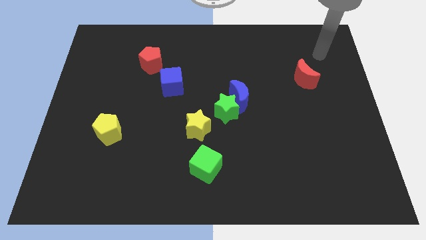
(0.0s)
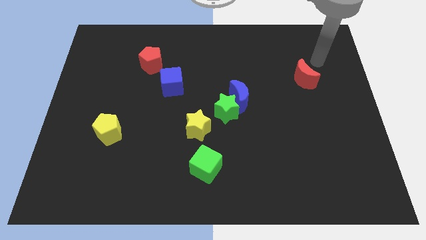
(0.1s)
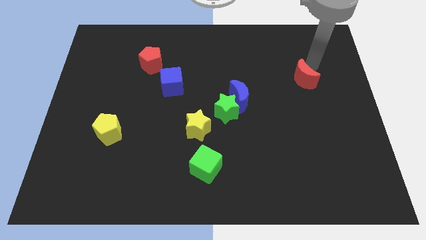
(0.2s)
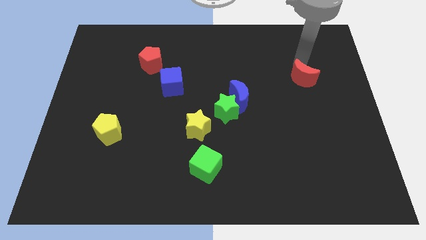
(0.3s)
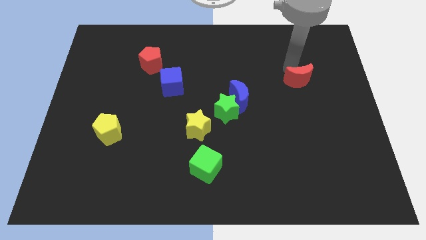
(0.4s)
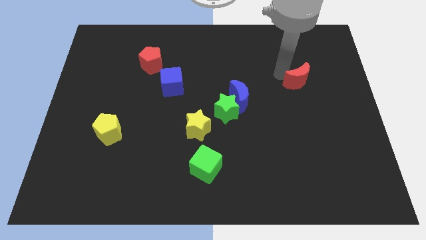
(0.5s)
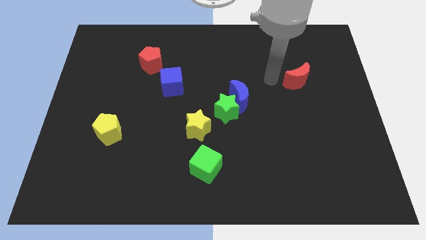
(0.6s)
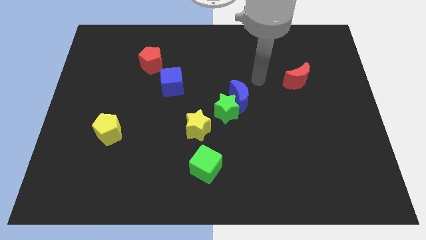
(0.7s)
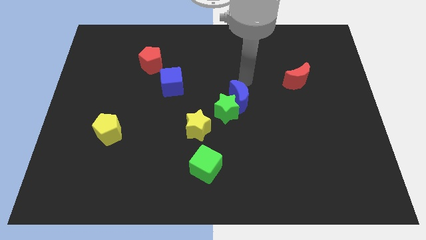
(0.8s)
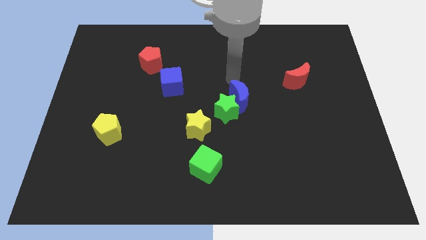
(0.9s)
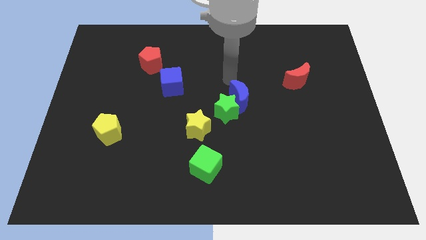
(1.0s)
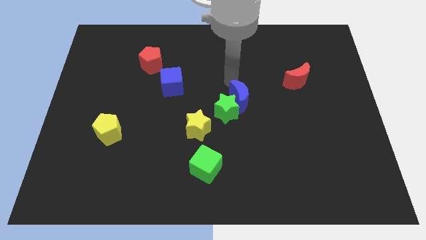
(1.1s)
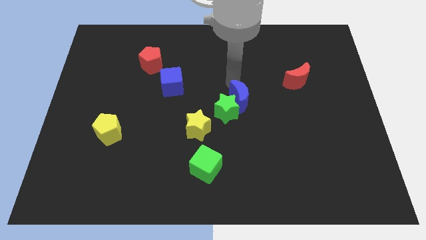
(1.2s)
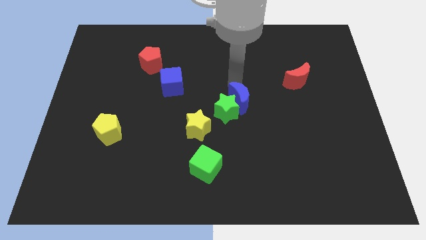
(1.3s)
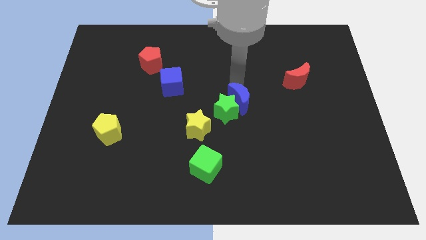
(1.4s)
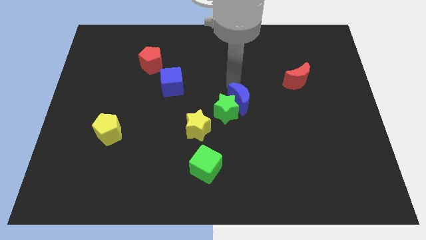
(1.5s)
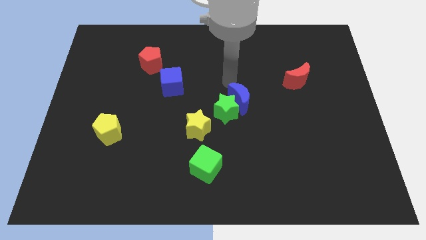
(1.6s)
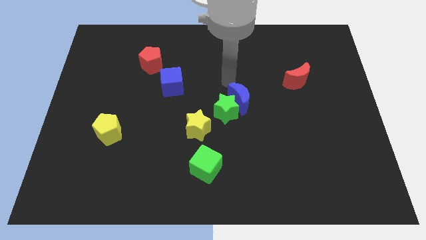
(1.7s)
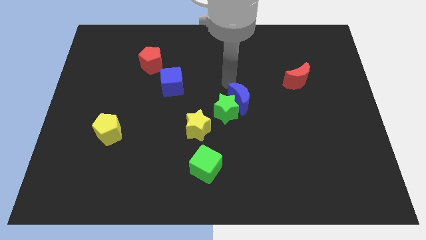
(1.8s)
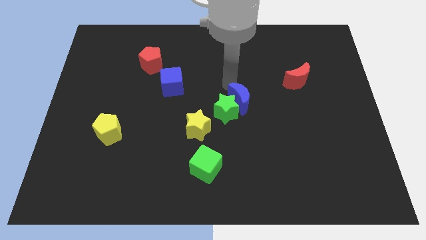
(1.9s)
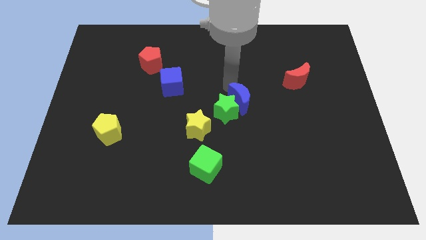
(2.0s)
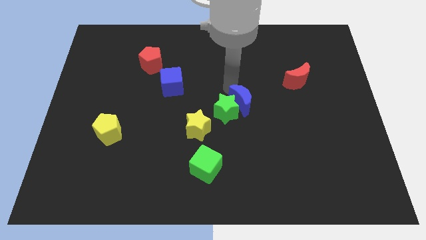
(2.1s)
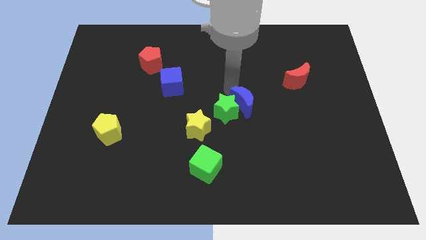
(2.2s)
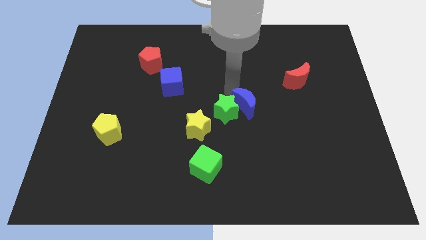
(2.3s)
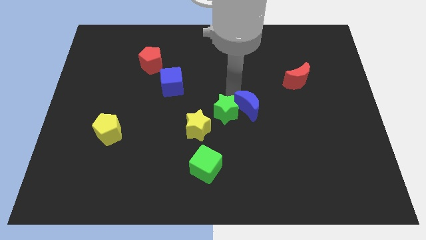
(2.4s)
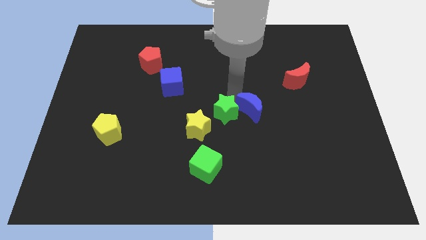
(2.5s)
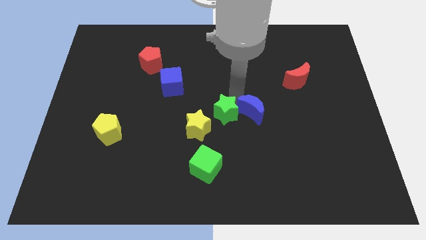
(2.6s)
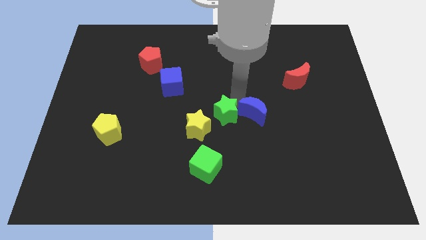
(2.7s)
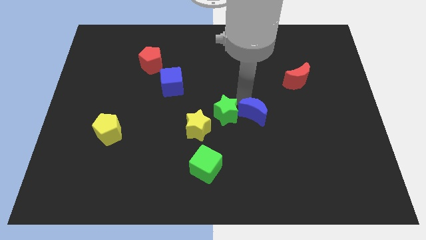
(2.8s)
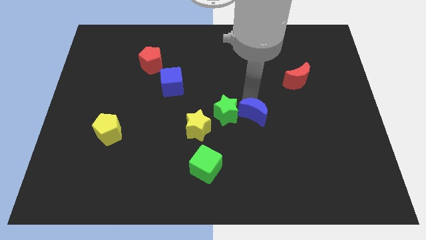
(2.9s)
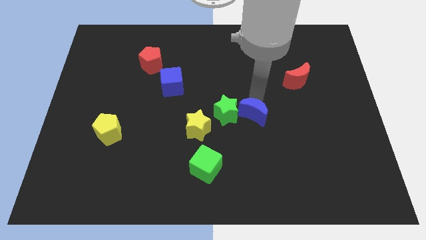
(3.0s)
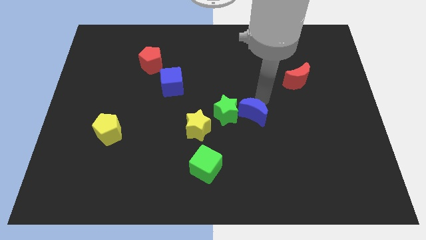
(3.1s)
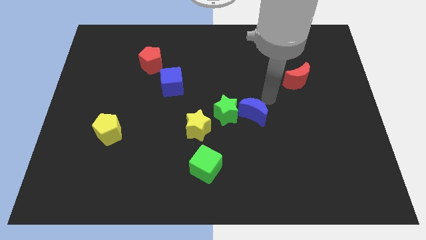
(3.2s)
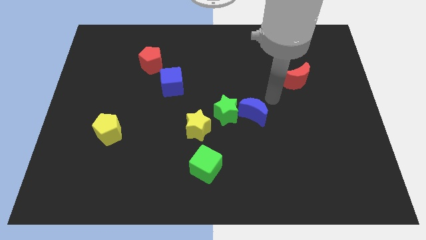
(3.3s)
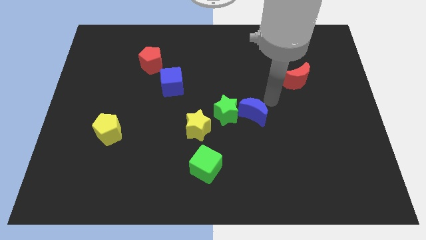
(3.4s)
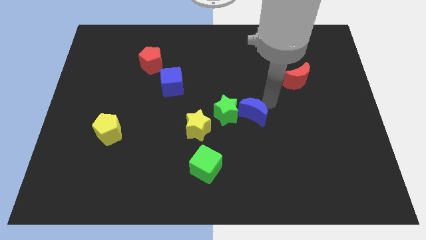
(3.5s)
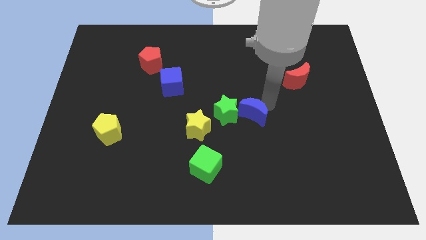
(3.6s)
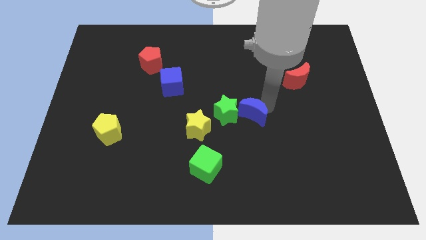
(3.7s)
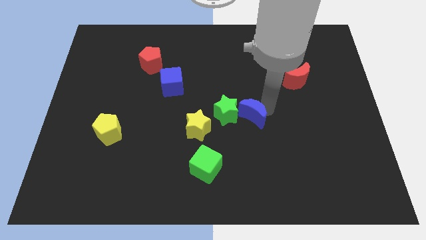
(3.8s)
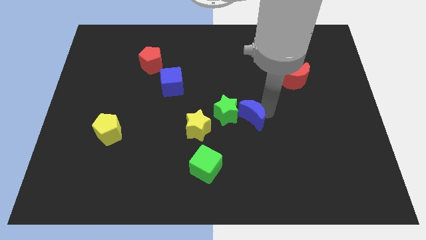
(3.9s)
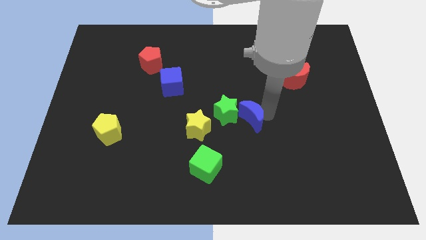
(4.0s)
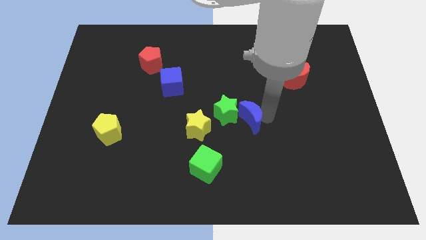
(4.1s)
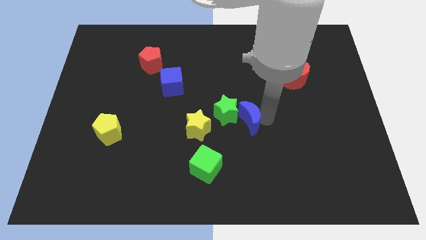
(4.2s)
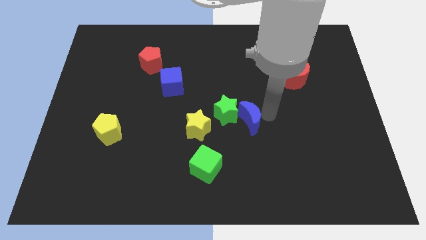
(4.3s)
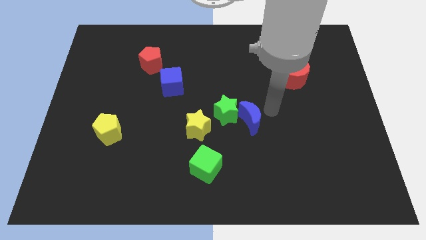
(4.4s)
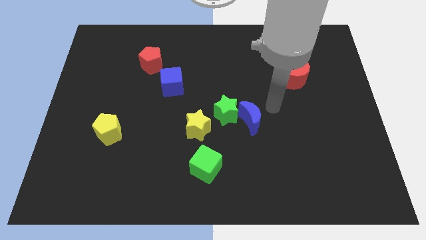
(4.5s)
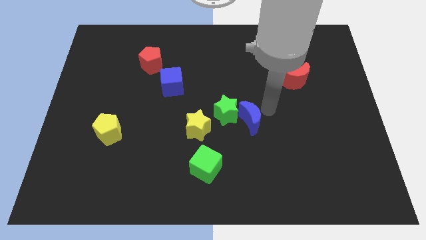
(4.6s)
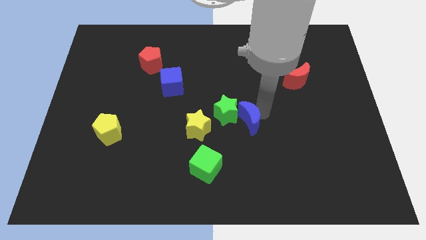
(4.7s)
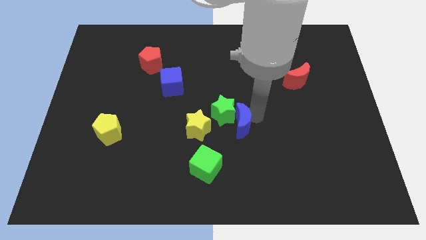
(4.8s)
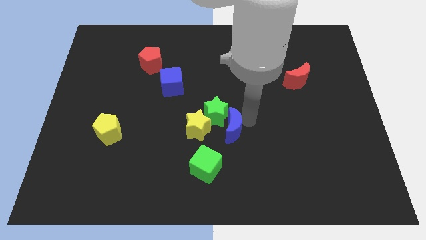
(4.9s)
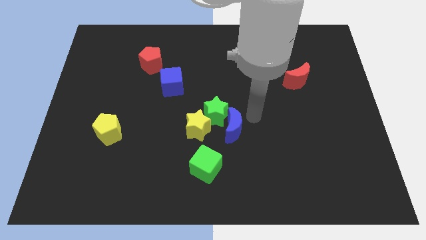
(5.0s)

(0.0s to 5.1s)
push the blue moon diagonally down and to the left a little bit

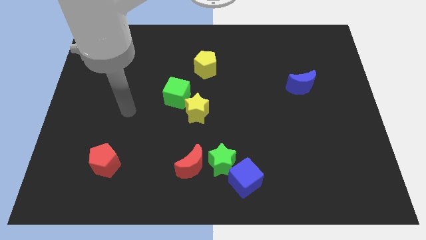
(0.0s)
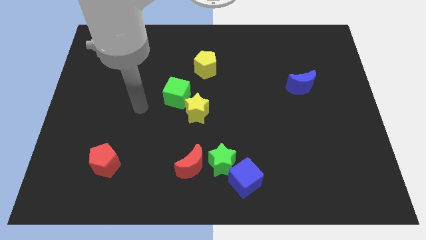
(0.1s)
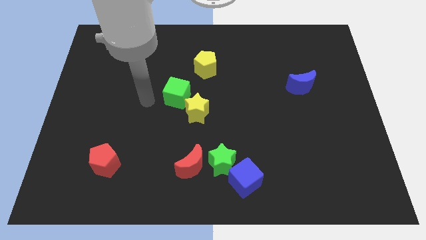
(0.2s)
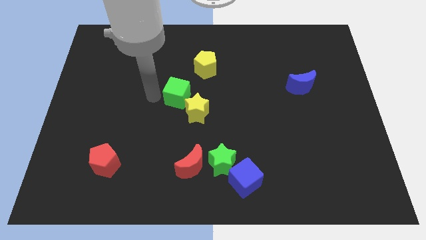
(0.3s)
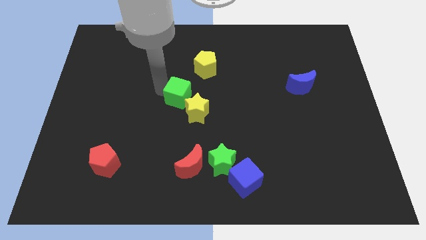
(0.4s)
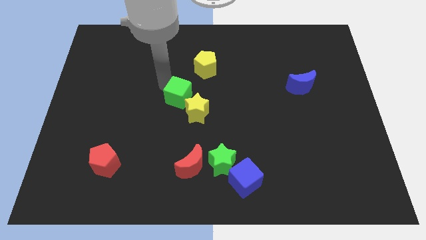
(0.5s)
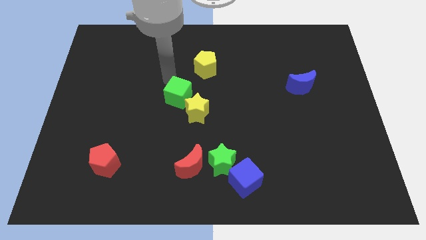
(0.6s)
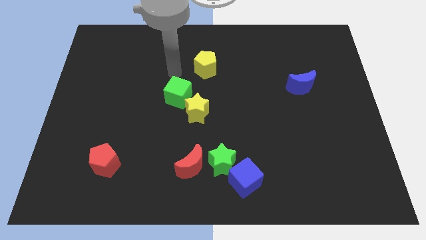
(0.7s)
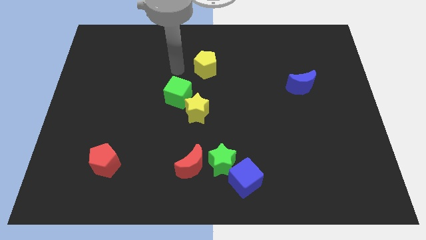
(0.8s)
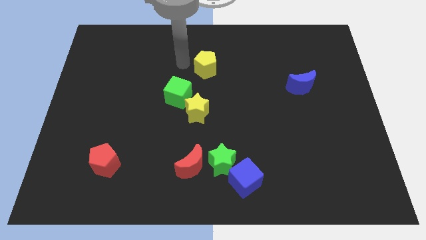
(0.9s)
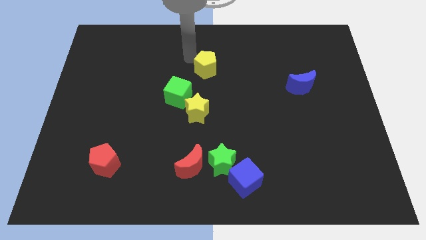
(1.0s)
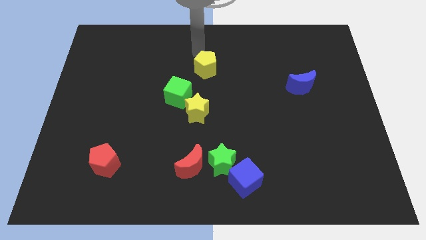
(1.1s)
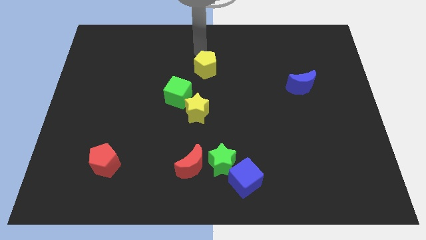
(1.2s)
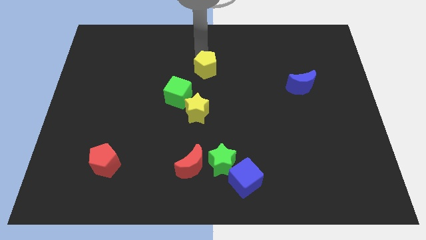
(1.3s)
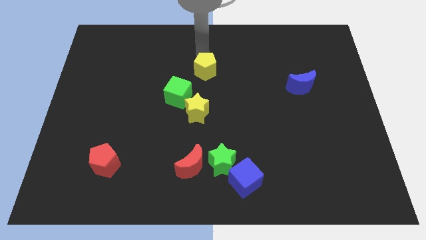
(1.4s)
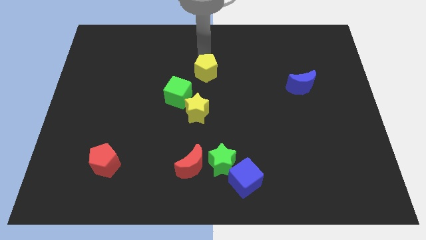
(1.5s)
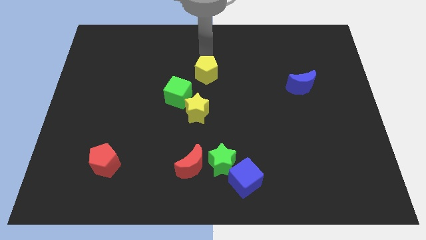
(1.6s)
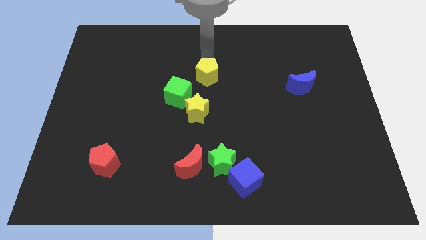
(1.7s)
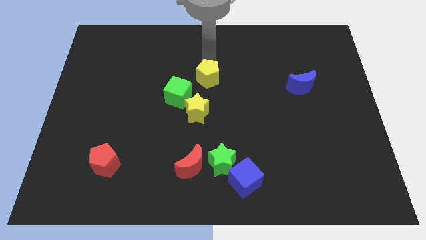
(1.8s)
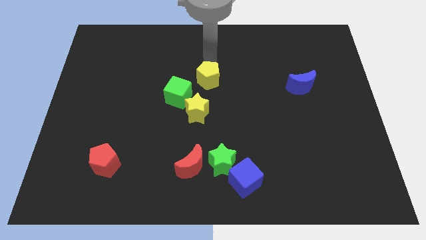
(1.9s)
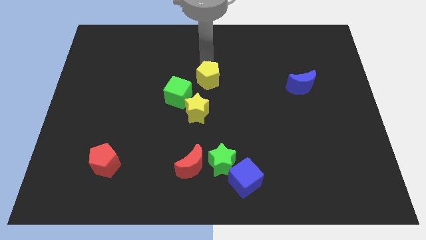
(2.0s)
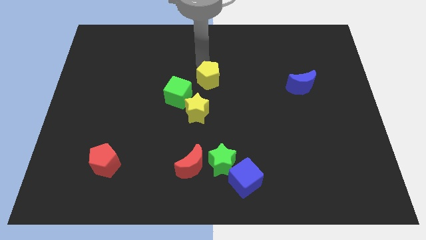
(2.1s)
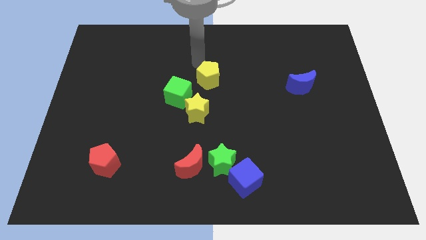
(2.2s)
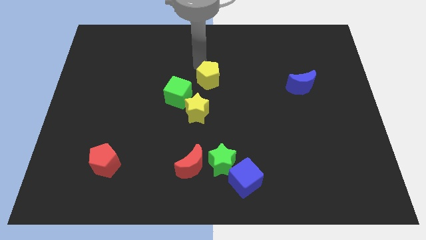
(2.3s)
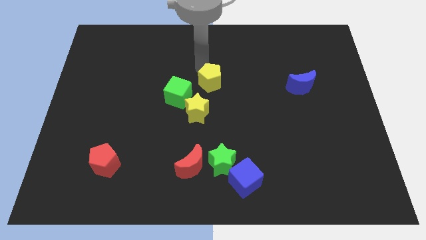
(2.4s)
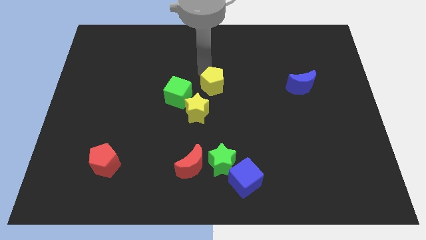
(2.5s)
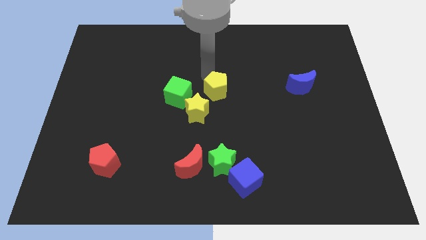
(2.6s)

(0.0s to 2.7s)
move the yellow pentagon a little bit downwards
